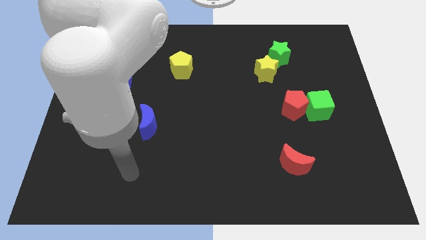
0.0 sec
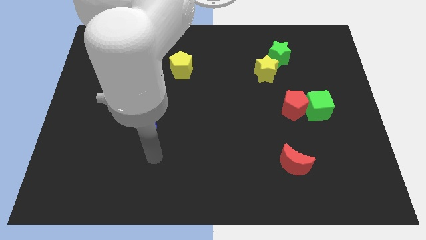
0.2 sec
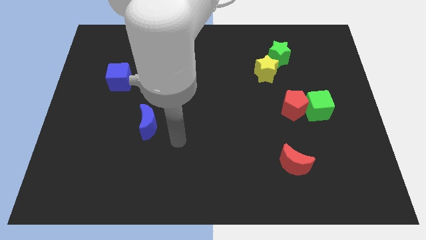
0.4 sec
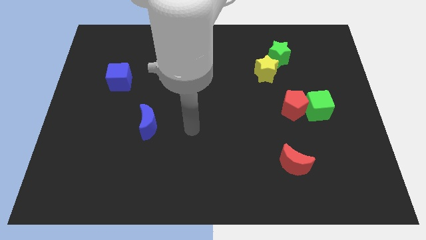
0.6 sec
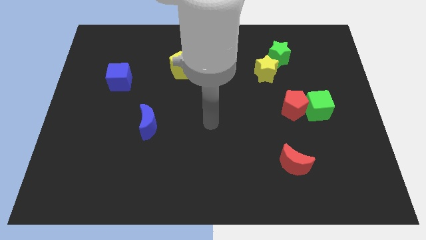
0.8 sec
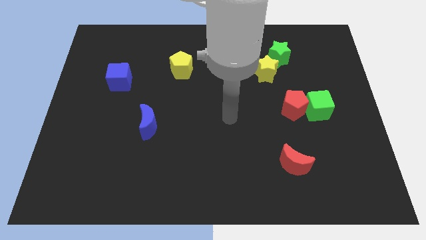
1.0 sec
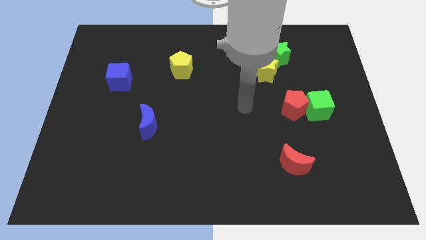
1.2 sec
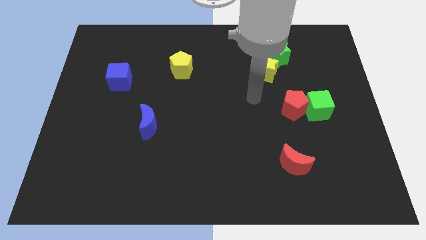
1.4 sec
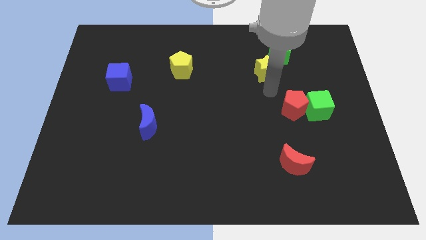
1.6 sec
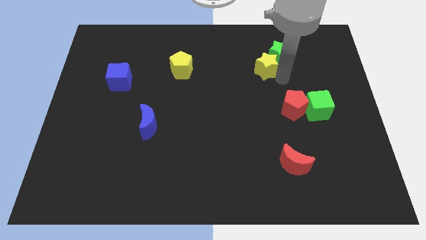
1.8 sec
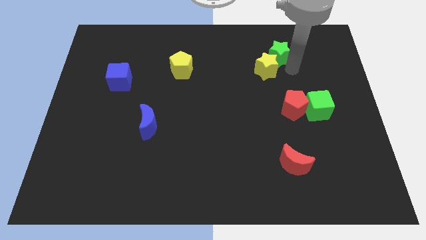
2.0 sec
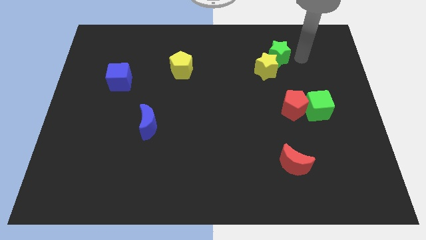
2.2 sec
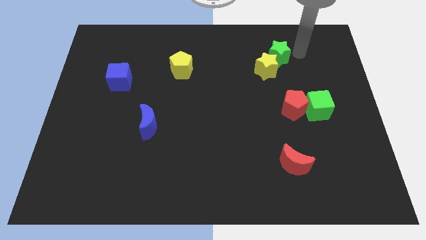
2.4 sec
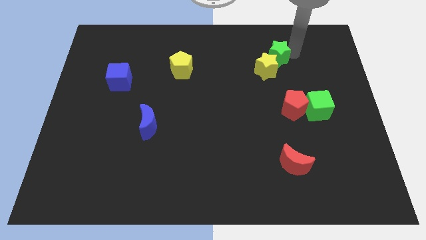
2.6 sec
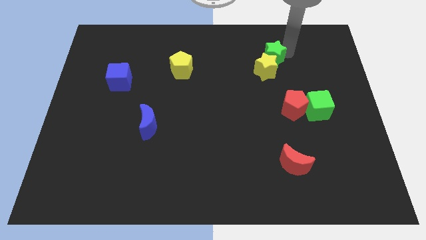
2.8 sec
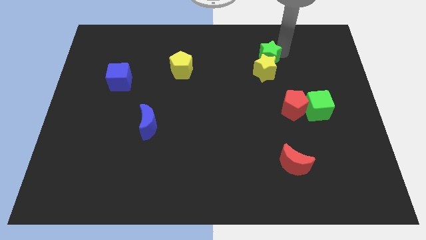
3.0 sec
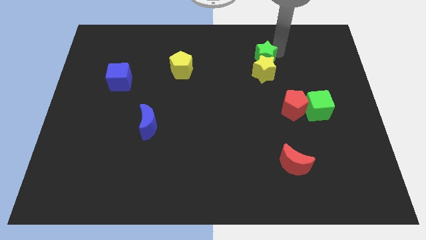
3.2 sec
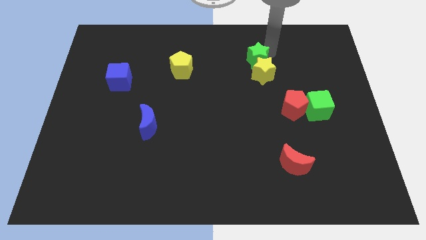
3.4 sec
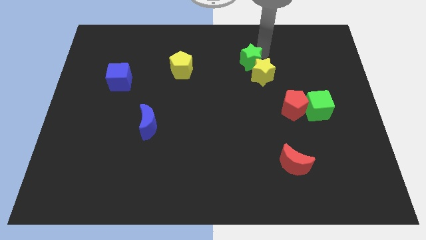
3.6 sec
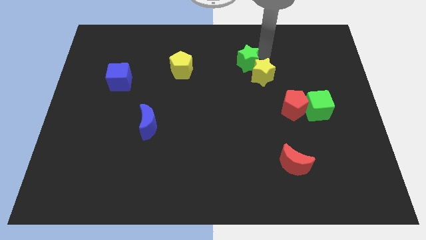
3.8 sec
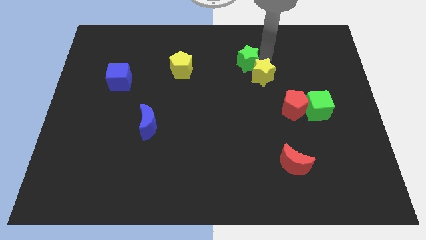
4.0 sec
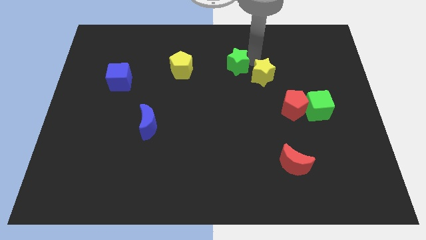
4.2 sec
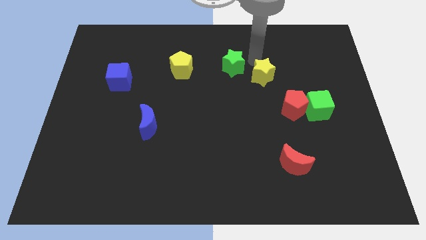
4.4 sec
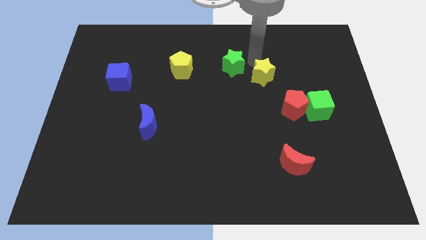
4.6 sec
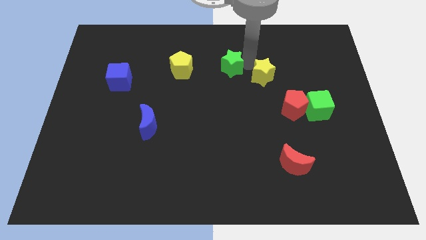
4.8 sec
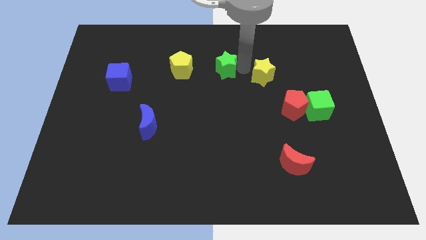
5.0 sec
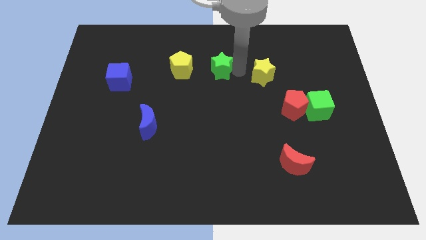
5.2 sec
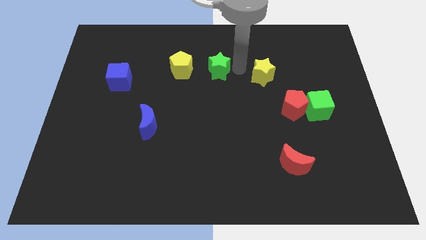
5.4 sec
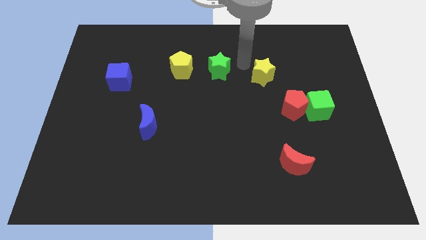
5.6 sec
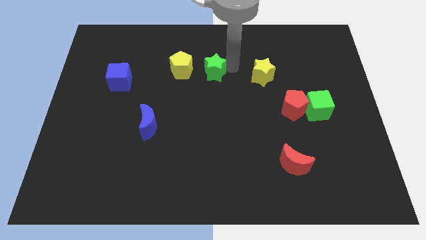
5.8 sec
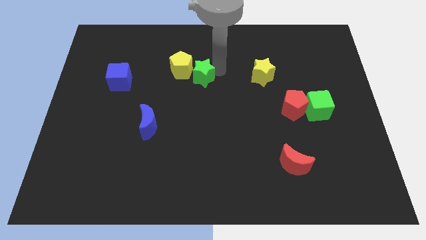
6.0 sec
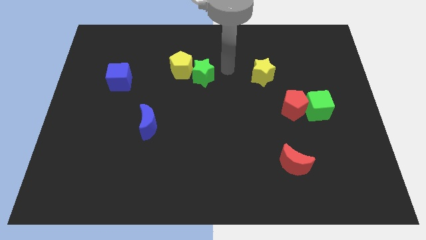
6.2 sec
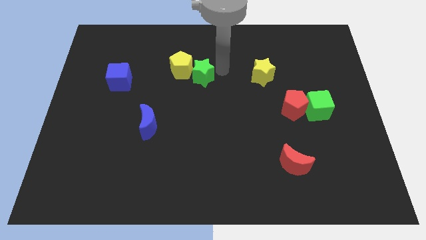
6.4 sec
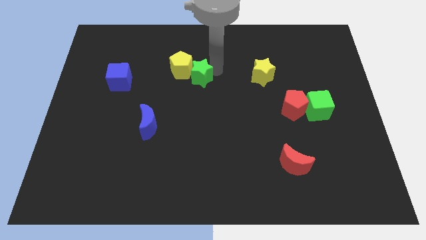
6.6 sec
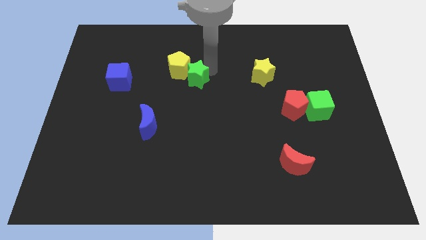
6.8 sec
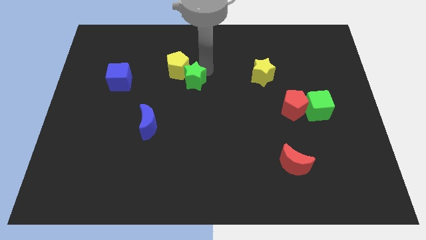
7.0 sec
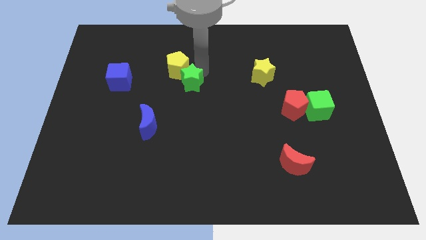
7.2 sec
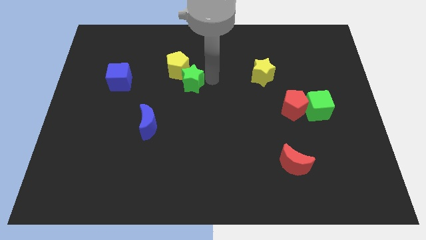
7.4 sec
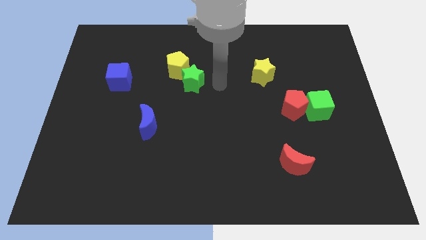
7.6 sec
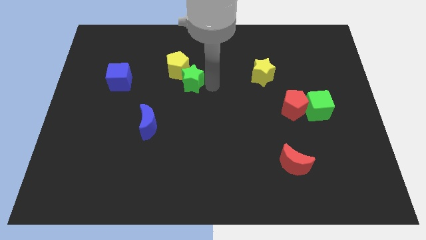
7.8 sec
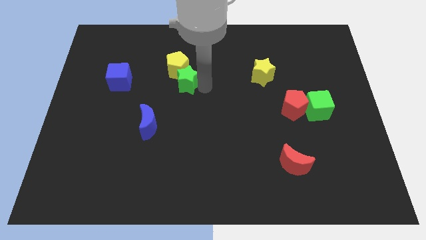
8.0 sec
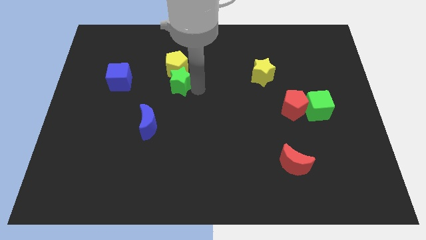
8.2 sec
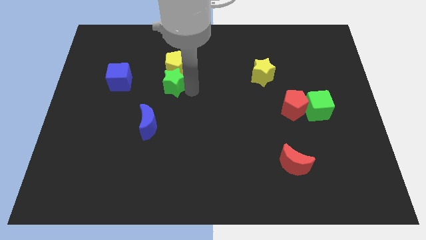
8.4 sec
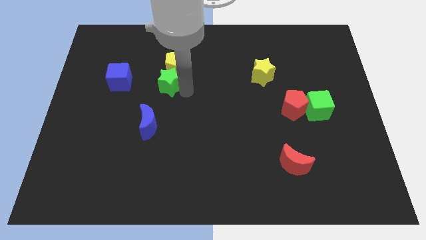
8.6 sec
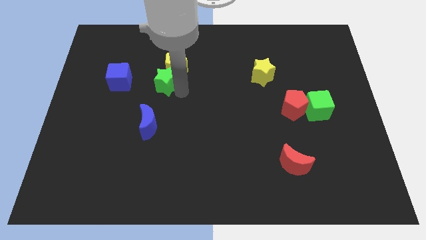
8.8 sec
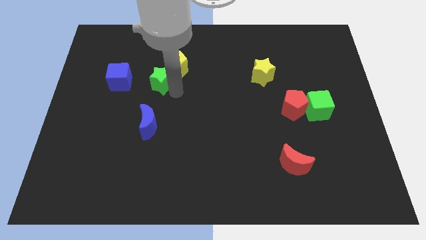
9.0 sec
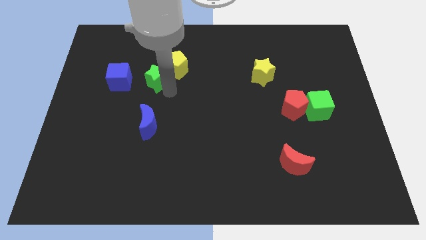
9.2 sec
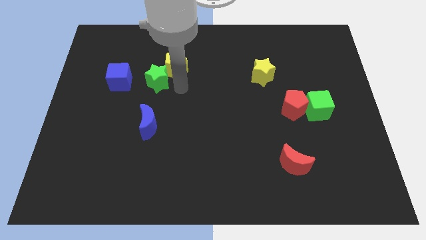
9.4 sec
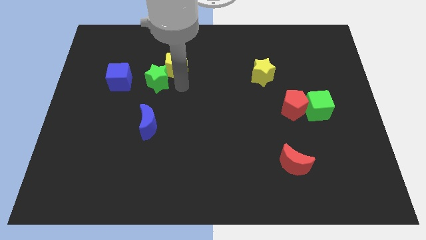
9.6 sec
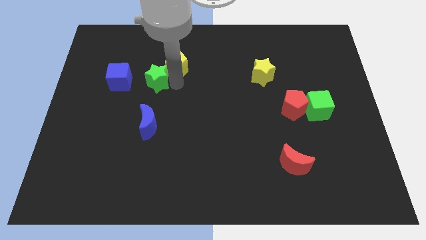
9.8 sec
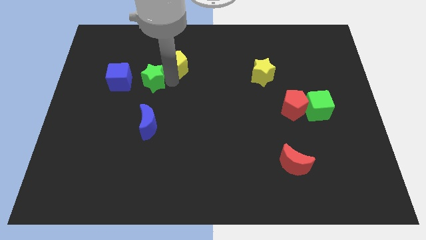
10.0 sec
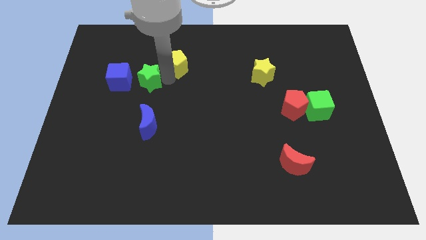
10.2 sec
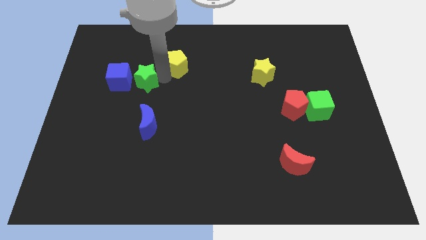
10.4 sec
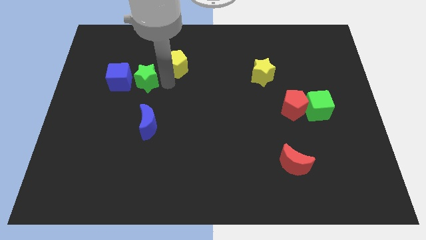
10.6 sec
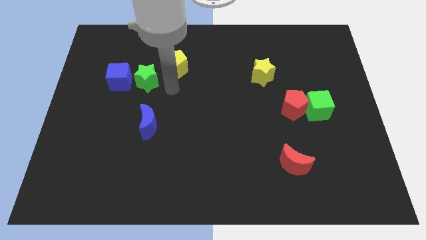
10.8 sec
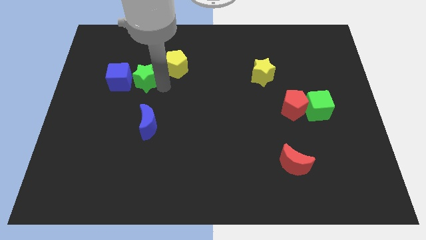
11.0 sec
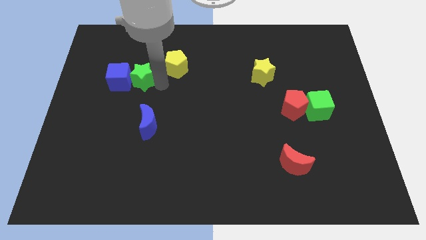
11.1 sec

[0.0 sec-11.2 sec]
slide the green star close to the blue cube

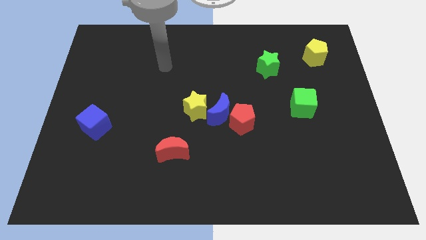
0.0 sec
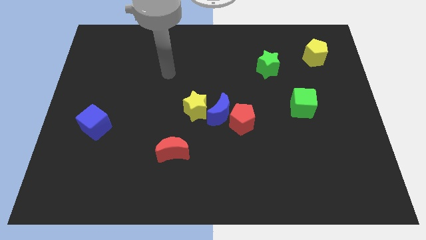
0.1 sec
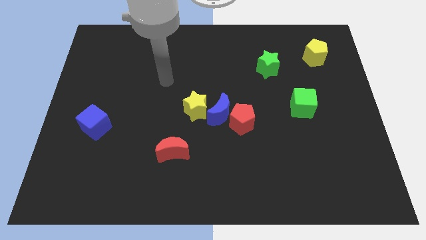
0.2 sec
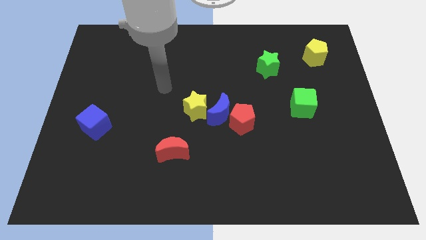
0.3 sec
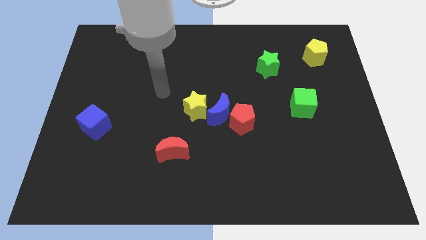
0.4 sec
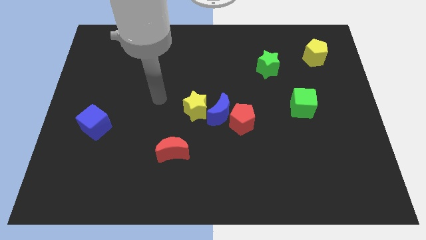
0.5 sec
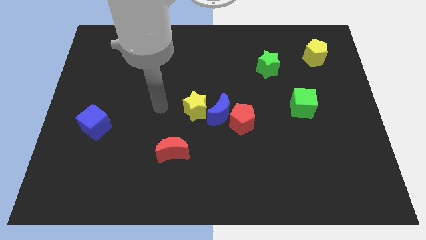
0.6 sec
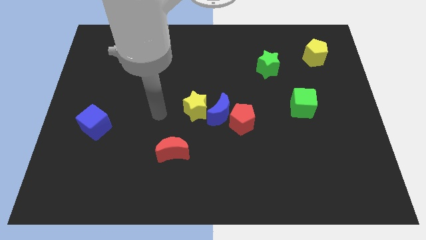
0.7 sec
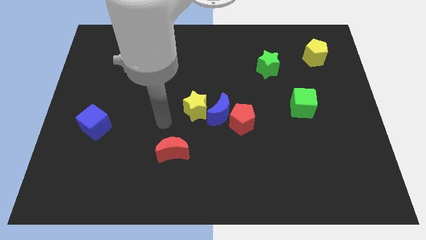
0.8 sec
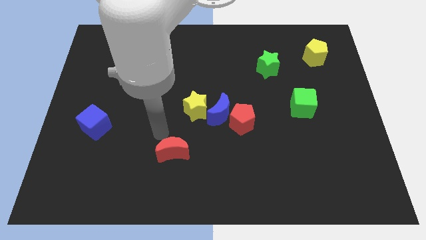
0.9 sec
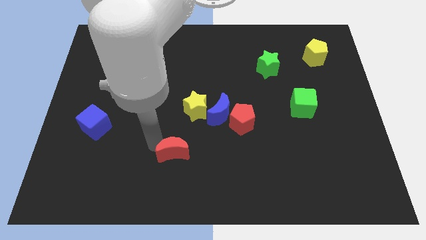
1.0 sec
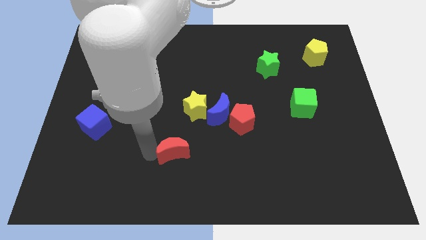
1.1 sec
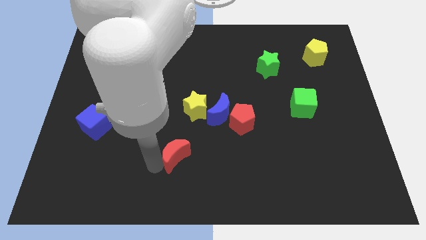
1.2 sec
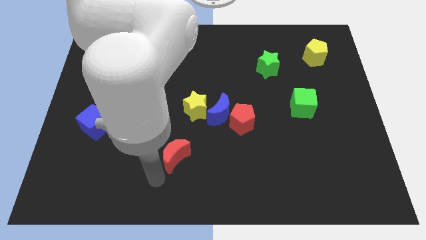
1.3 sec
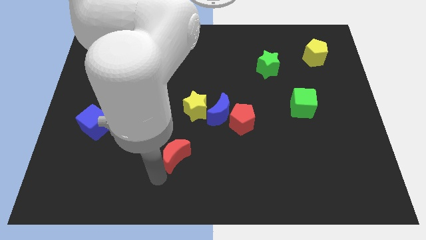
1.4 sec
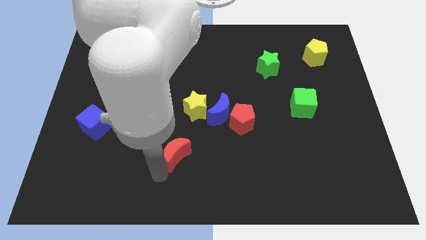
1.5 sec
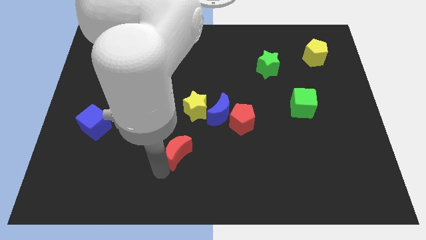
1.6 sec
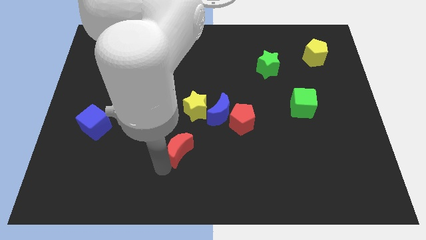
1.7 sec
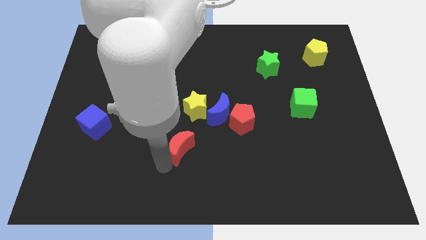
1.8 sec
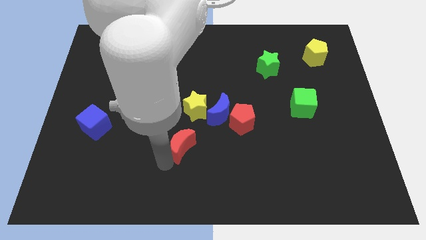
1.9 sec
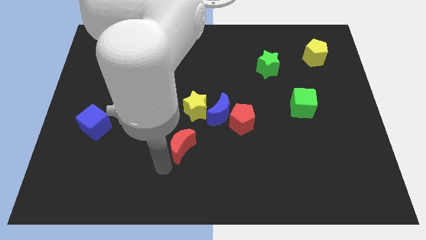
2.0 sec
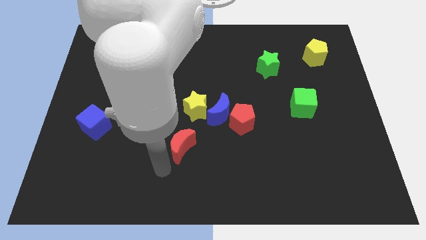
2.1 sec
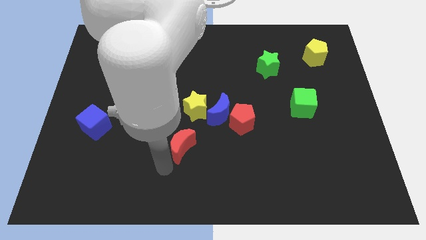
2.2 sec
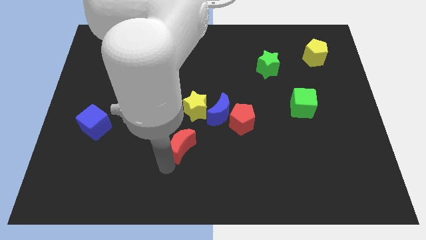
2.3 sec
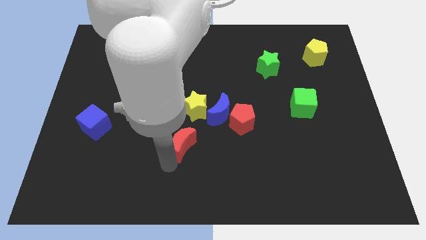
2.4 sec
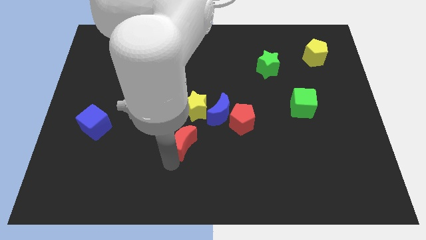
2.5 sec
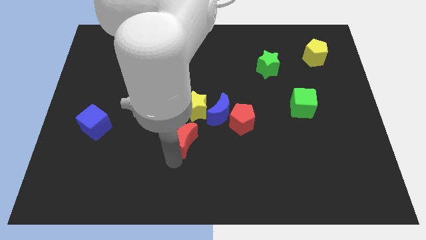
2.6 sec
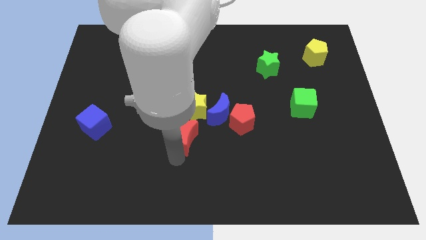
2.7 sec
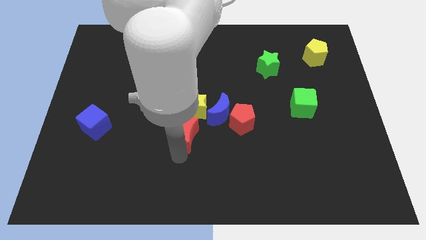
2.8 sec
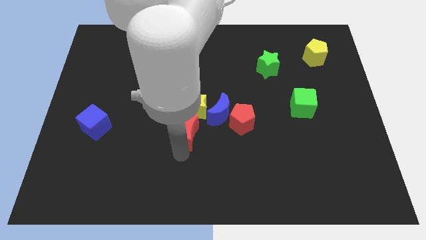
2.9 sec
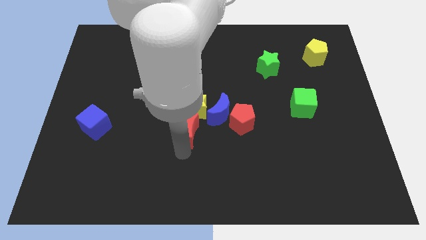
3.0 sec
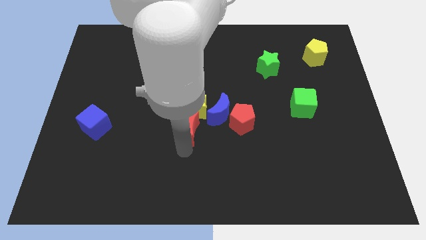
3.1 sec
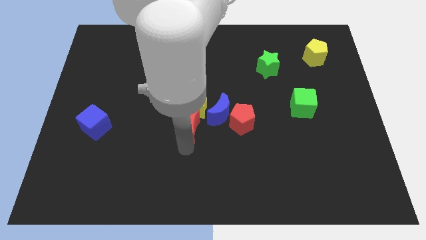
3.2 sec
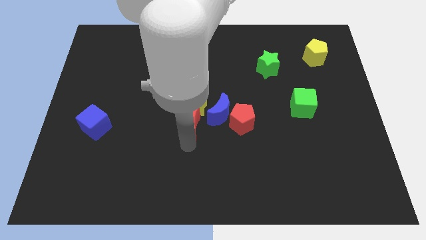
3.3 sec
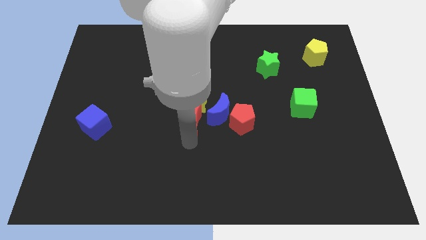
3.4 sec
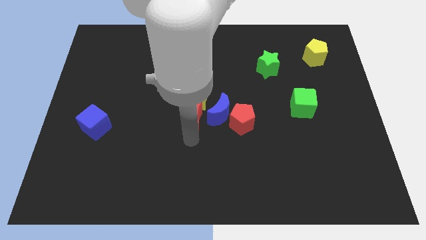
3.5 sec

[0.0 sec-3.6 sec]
move the red moon next to the blue moon
